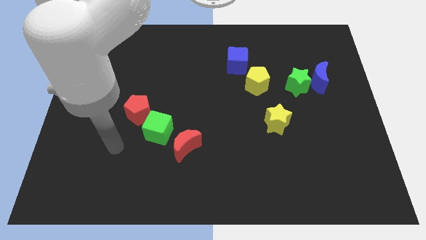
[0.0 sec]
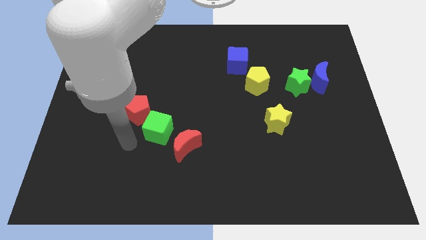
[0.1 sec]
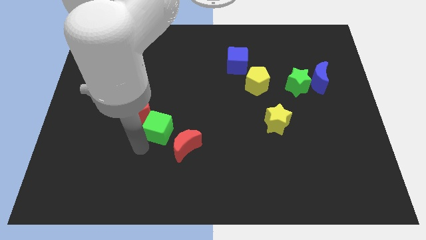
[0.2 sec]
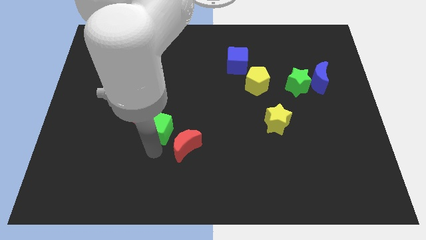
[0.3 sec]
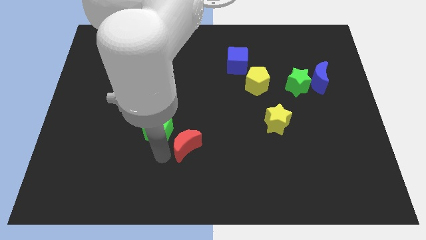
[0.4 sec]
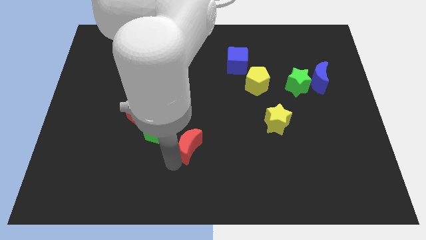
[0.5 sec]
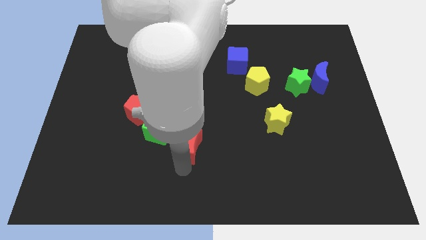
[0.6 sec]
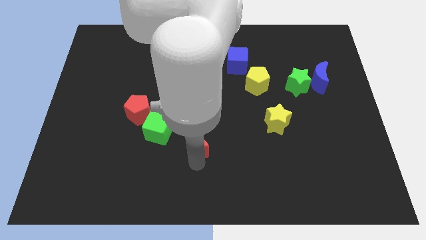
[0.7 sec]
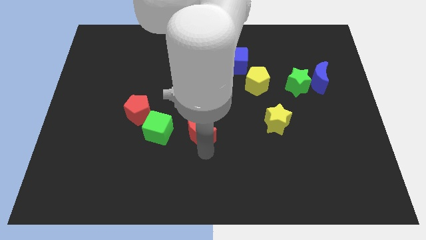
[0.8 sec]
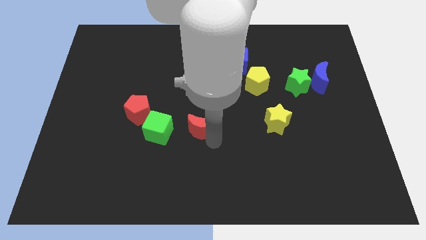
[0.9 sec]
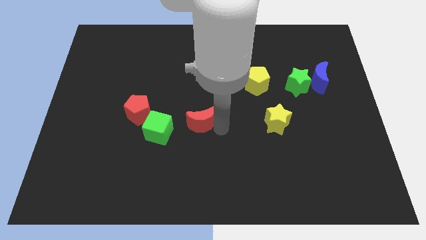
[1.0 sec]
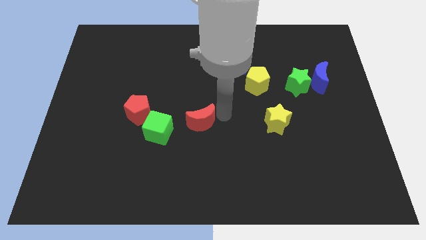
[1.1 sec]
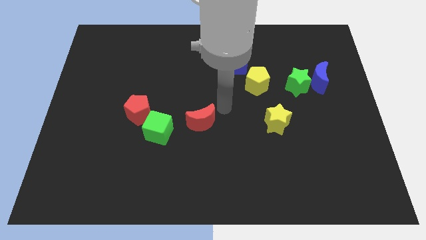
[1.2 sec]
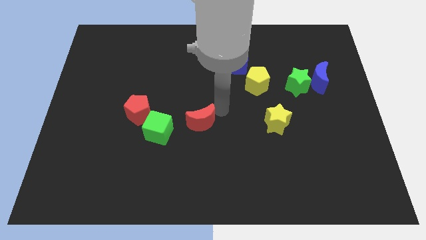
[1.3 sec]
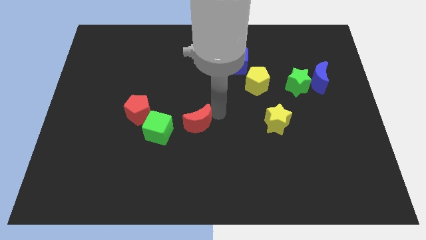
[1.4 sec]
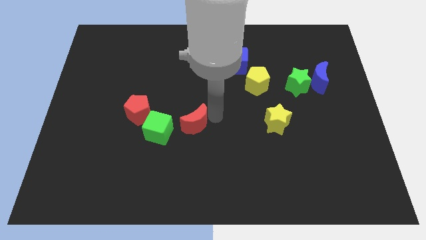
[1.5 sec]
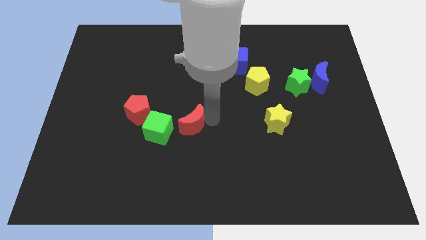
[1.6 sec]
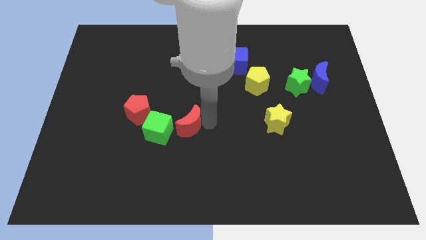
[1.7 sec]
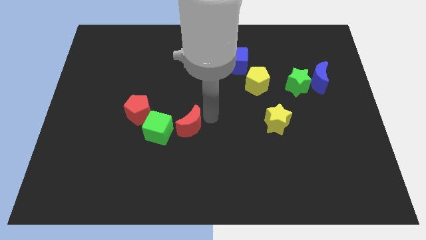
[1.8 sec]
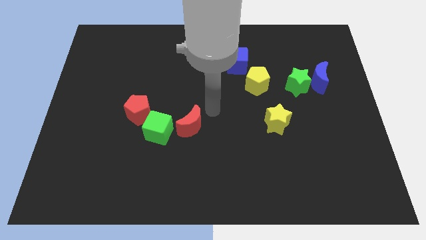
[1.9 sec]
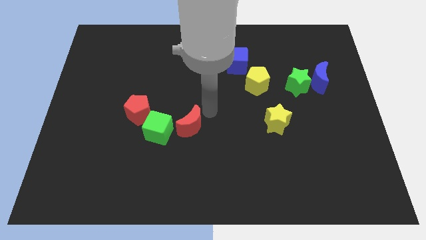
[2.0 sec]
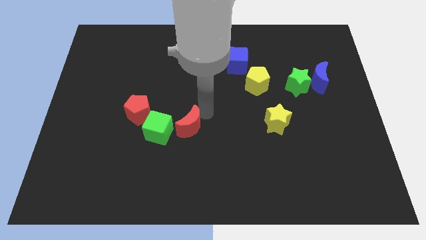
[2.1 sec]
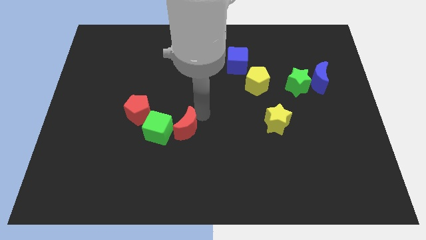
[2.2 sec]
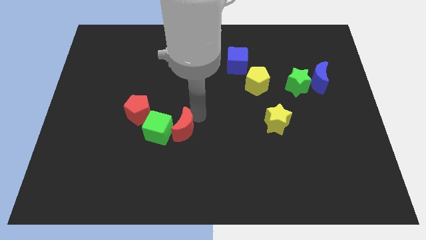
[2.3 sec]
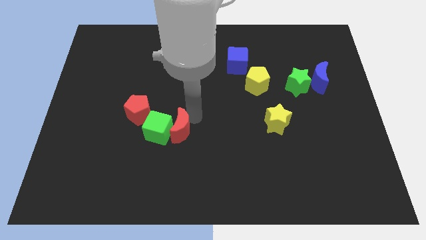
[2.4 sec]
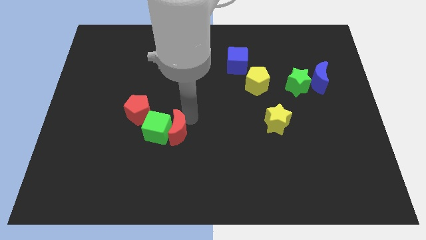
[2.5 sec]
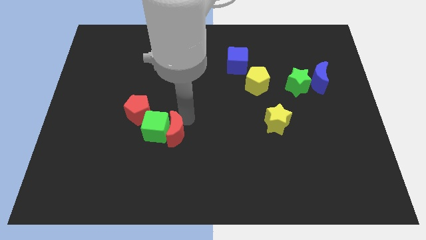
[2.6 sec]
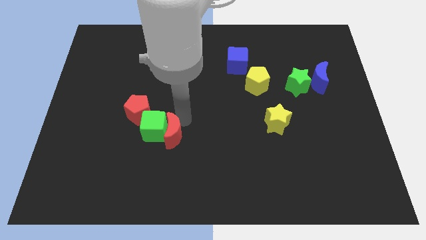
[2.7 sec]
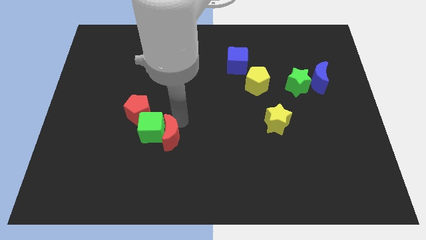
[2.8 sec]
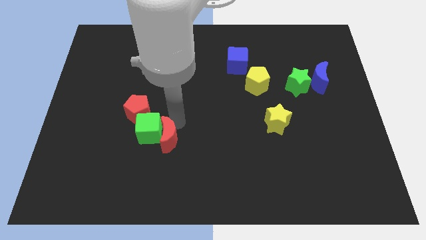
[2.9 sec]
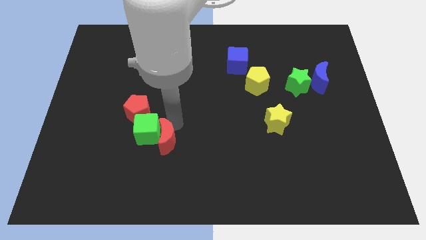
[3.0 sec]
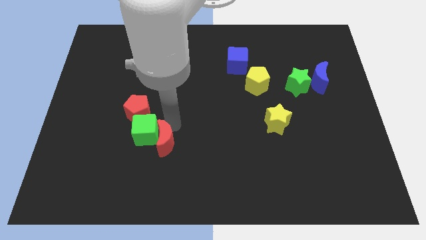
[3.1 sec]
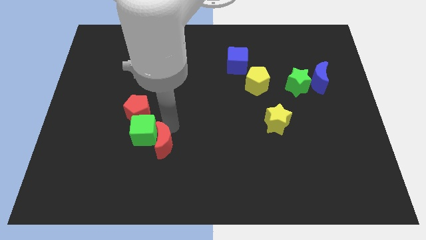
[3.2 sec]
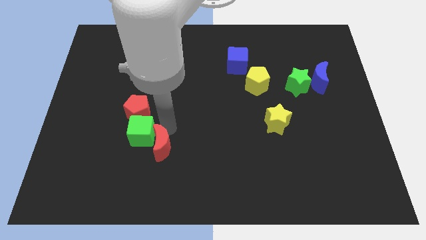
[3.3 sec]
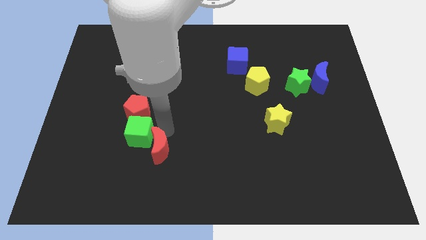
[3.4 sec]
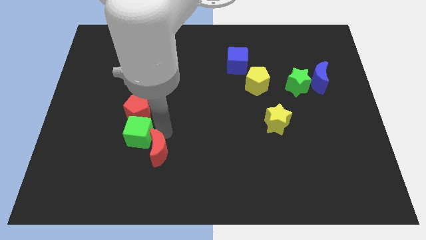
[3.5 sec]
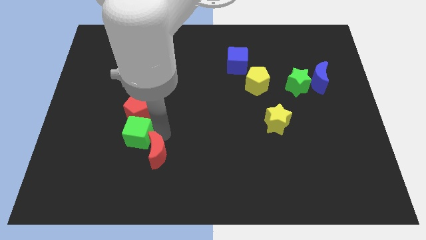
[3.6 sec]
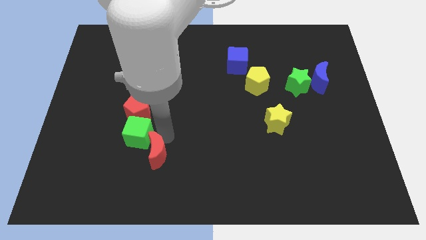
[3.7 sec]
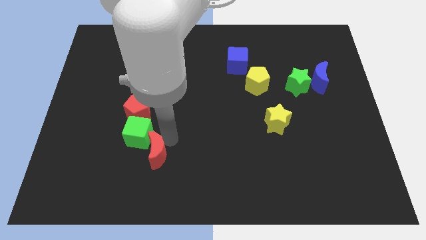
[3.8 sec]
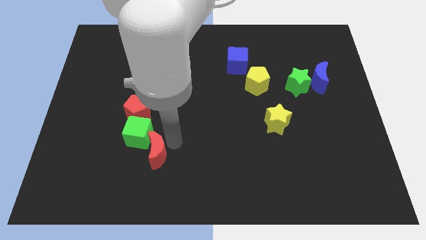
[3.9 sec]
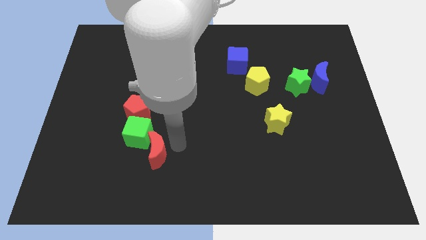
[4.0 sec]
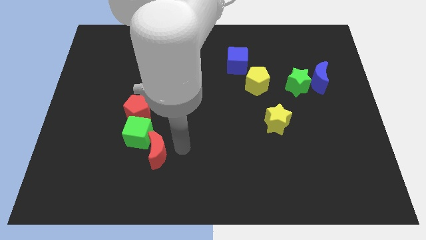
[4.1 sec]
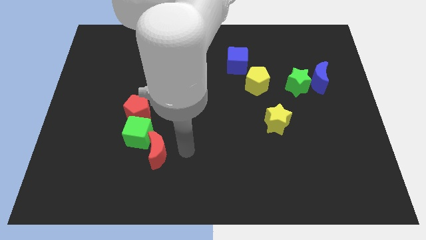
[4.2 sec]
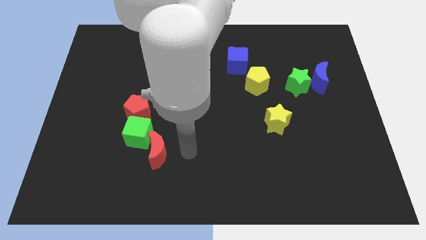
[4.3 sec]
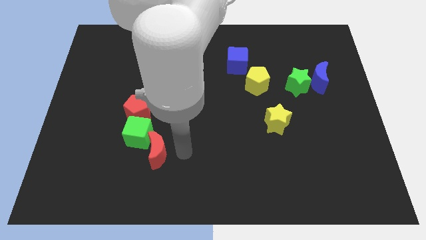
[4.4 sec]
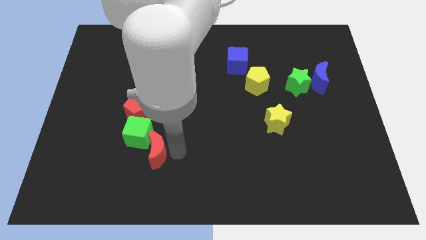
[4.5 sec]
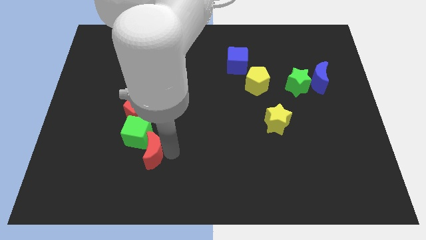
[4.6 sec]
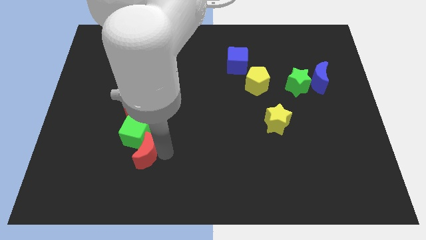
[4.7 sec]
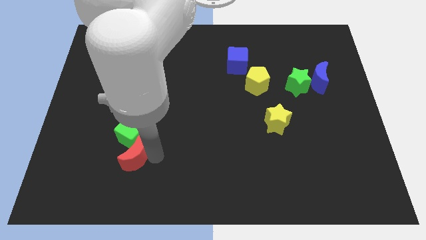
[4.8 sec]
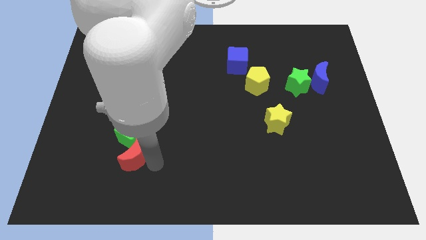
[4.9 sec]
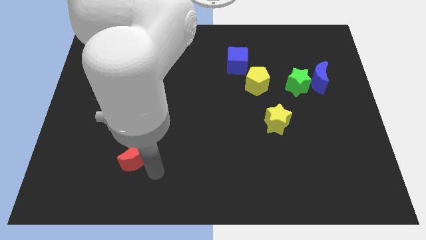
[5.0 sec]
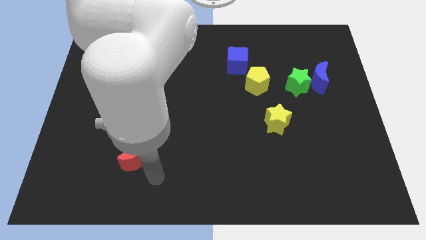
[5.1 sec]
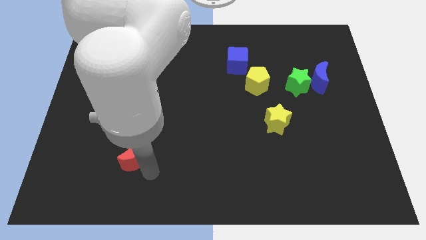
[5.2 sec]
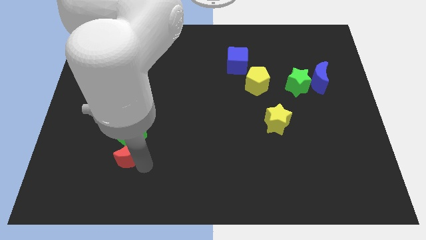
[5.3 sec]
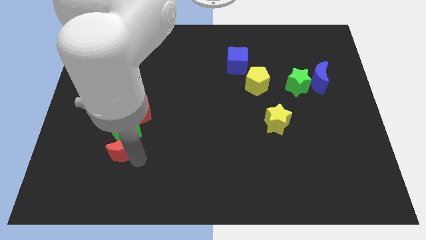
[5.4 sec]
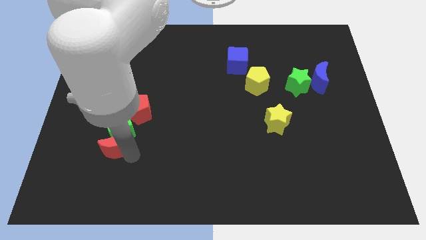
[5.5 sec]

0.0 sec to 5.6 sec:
move the red moon to the bottom left side of the red pentagon
